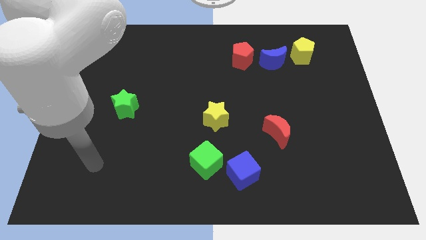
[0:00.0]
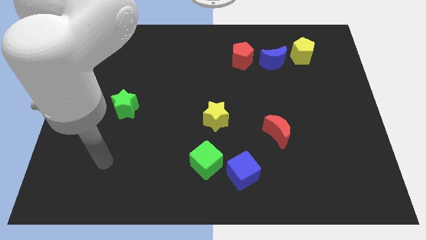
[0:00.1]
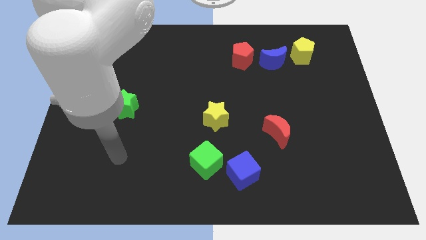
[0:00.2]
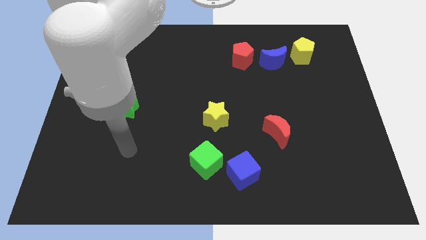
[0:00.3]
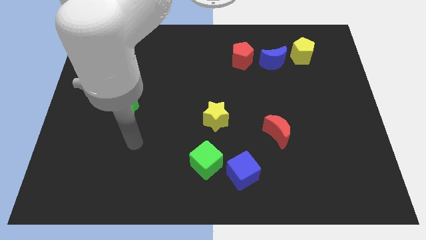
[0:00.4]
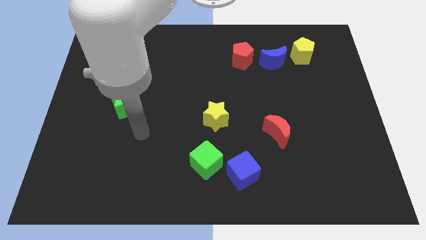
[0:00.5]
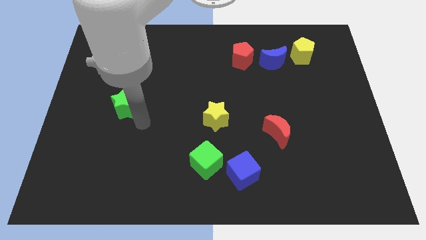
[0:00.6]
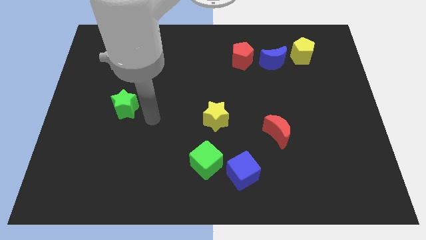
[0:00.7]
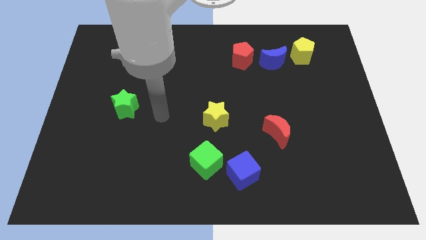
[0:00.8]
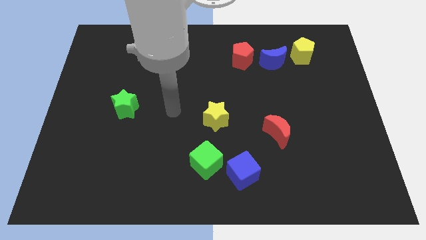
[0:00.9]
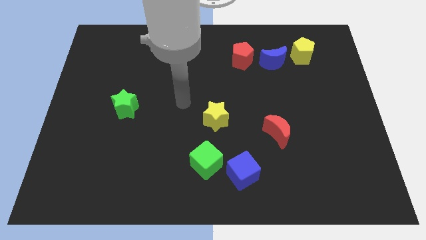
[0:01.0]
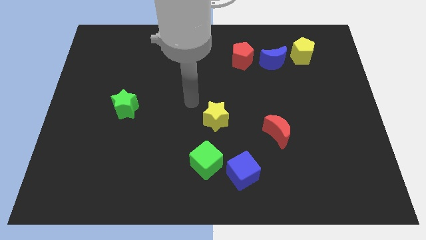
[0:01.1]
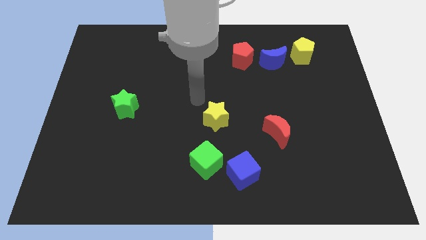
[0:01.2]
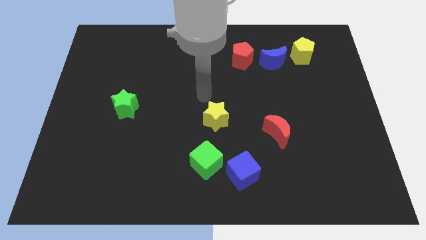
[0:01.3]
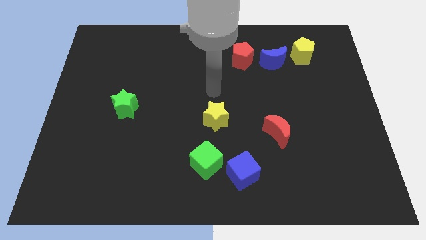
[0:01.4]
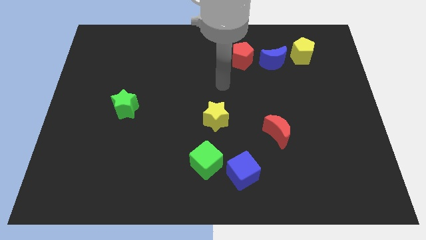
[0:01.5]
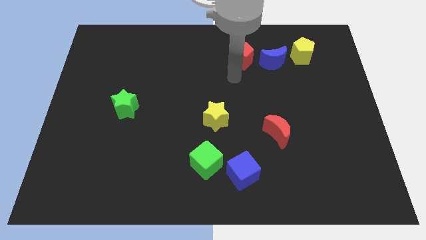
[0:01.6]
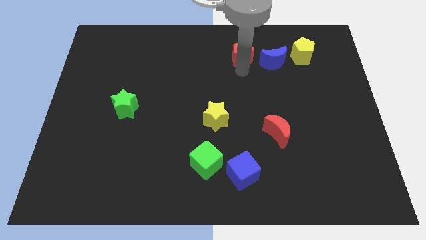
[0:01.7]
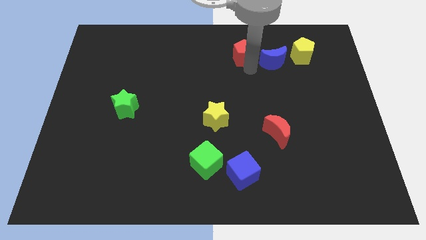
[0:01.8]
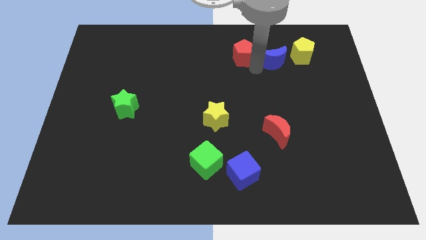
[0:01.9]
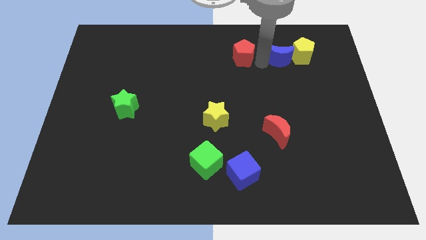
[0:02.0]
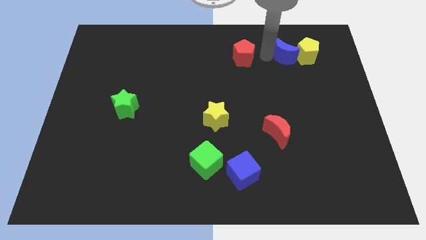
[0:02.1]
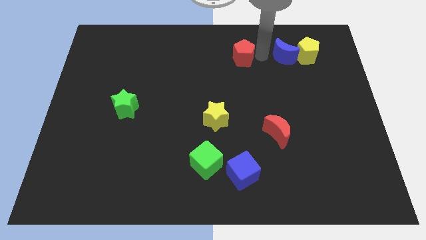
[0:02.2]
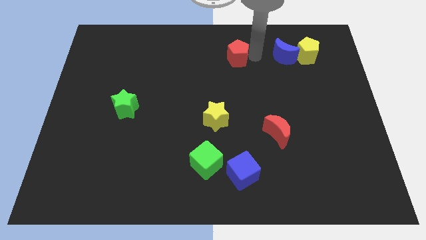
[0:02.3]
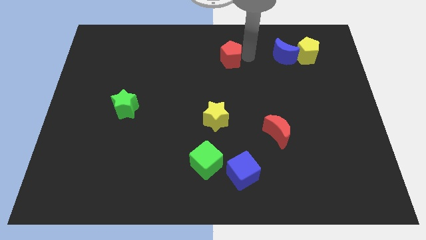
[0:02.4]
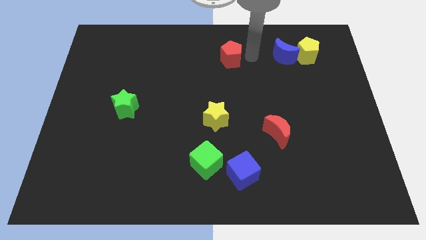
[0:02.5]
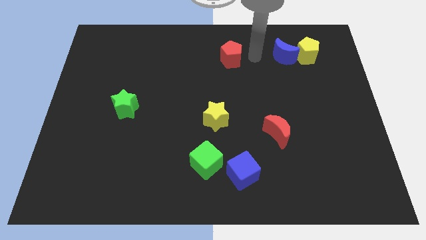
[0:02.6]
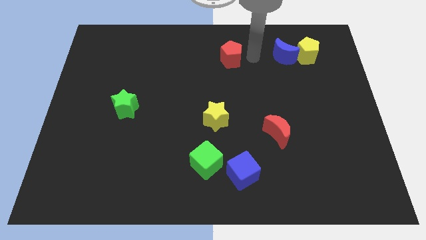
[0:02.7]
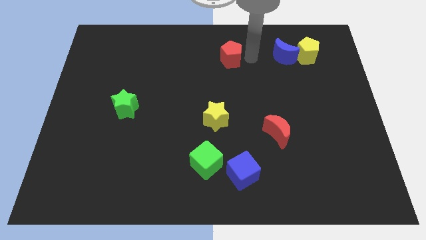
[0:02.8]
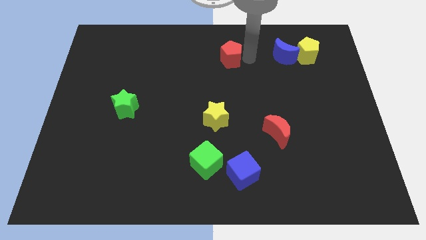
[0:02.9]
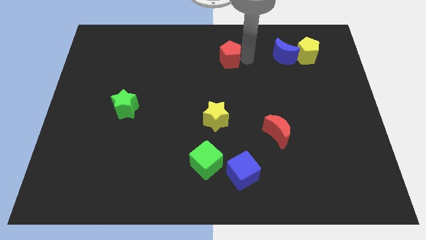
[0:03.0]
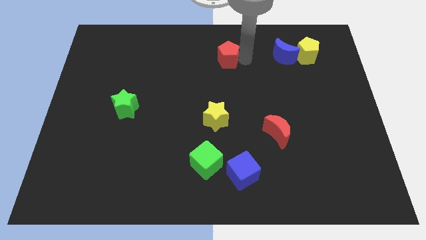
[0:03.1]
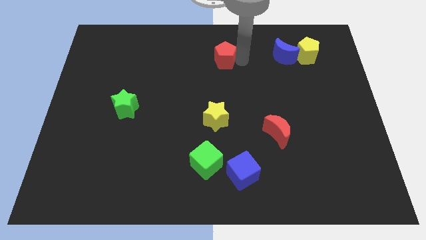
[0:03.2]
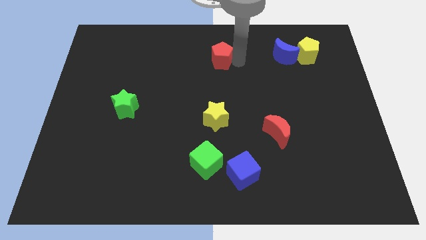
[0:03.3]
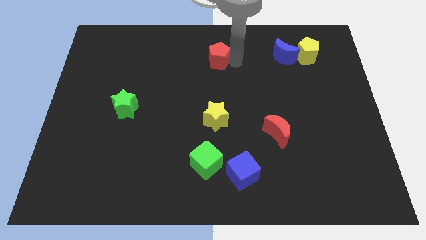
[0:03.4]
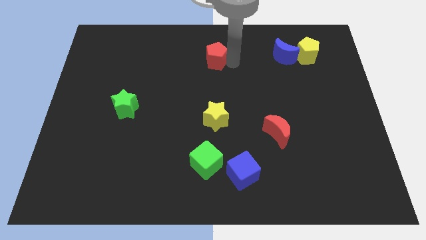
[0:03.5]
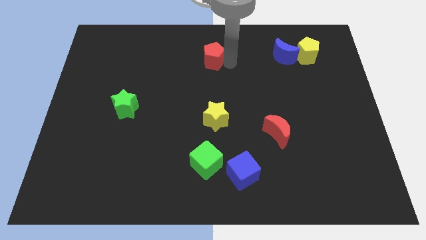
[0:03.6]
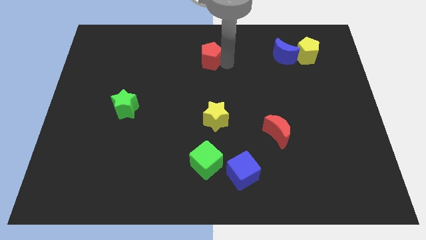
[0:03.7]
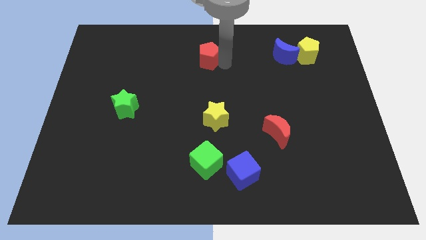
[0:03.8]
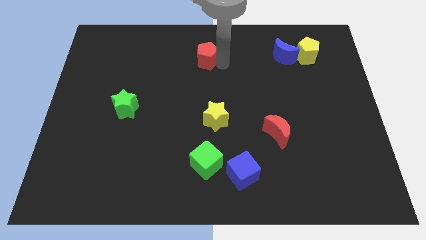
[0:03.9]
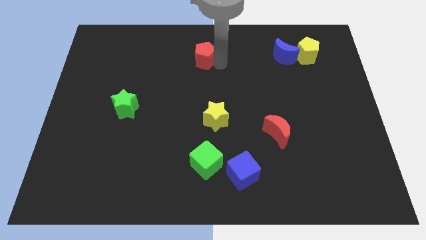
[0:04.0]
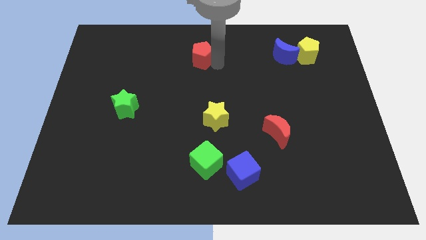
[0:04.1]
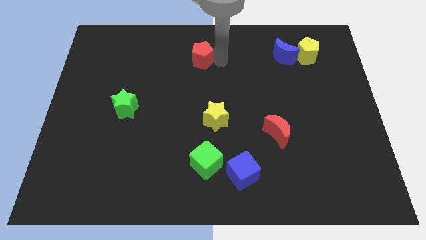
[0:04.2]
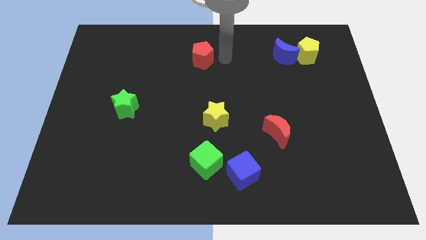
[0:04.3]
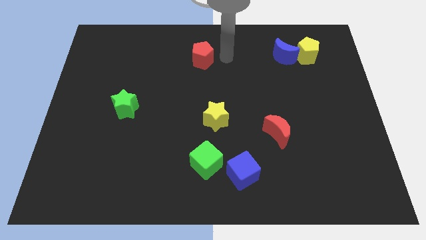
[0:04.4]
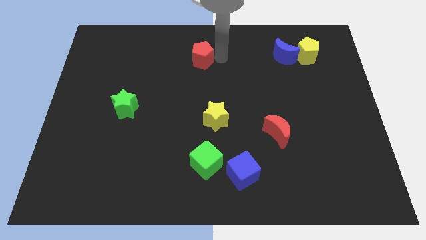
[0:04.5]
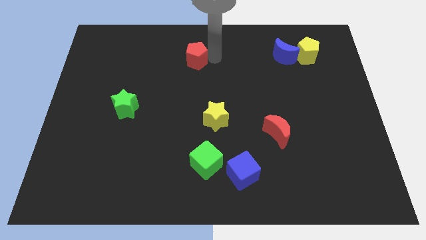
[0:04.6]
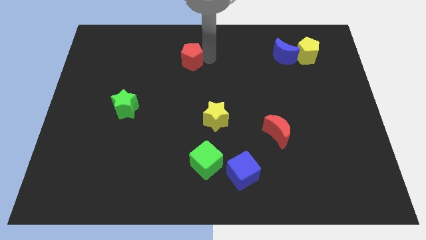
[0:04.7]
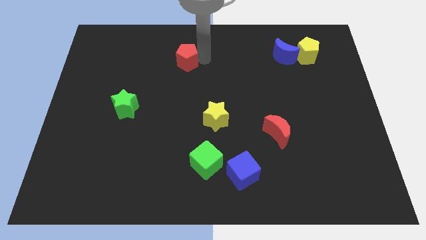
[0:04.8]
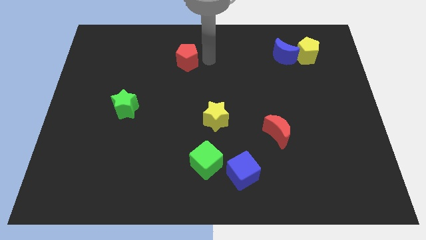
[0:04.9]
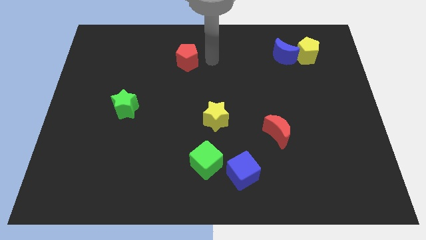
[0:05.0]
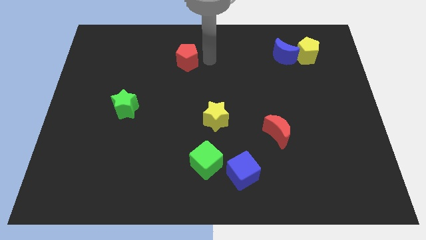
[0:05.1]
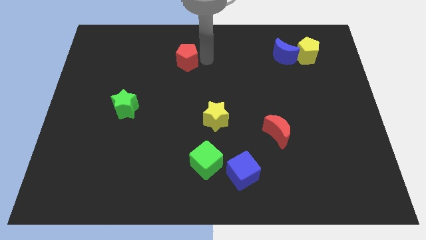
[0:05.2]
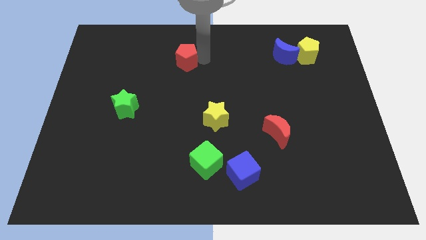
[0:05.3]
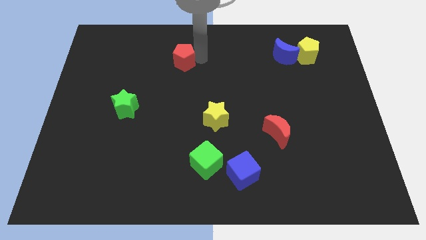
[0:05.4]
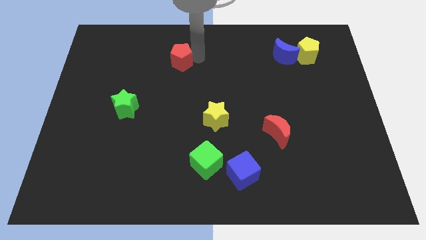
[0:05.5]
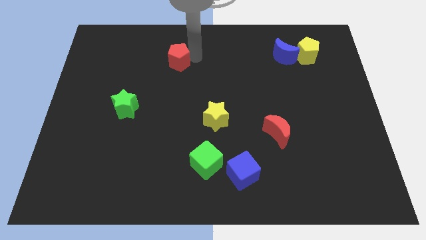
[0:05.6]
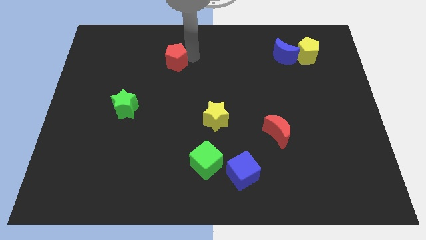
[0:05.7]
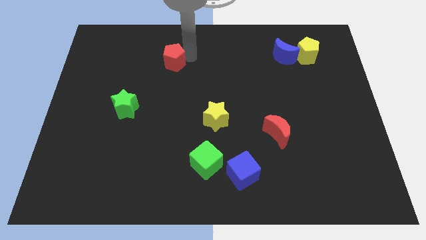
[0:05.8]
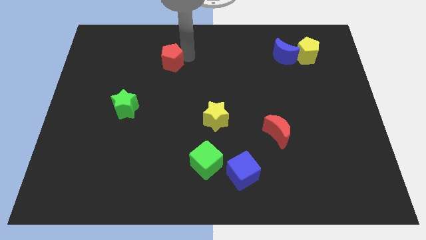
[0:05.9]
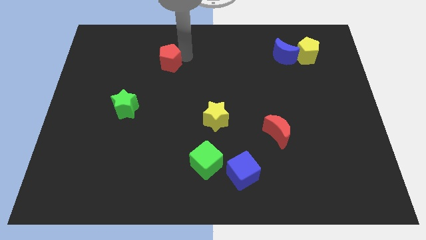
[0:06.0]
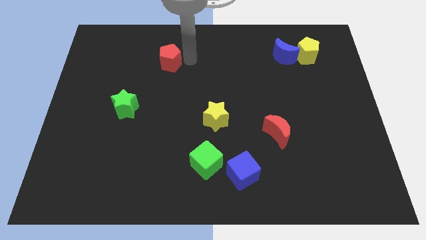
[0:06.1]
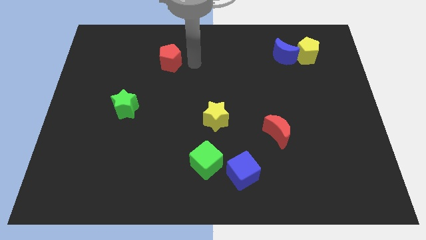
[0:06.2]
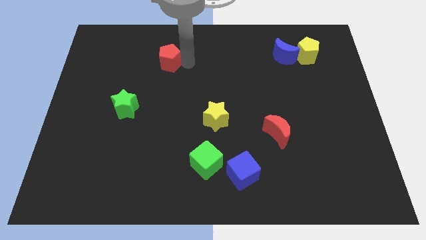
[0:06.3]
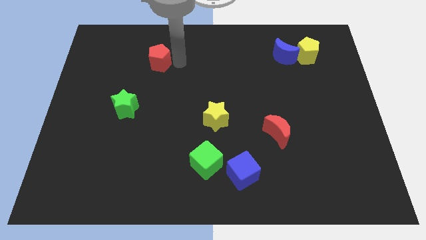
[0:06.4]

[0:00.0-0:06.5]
move the red pentagon to the left

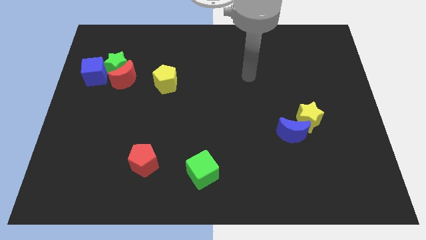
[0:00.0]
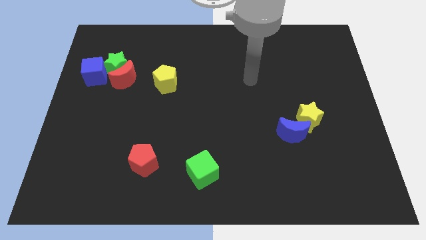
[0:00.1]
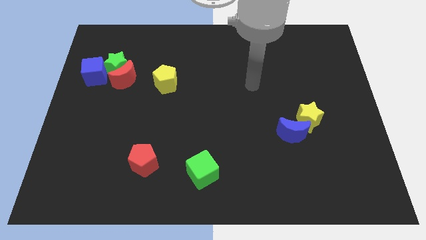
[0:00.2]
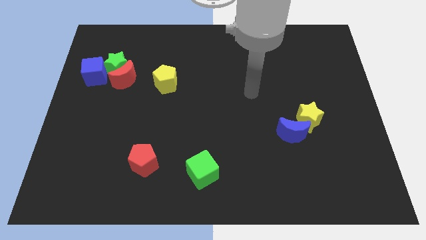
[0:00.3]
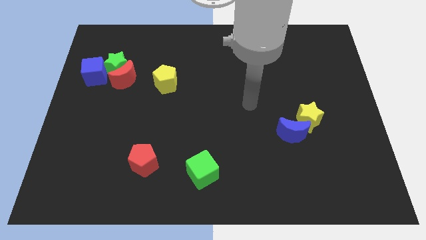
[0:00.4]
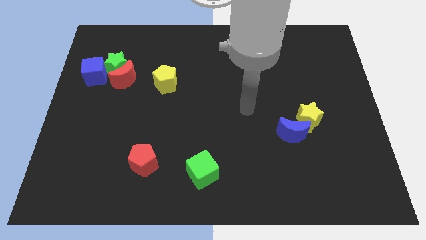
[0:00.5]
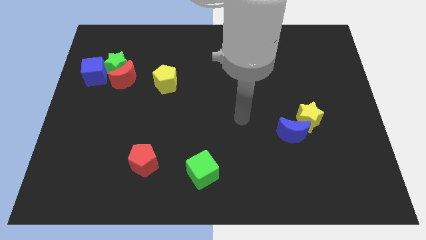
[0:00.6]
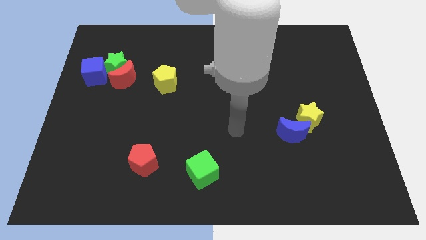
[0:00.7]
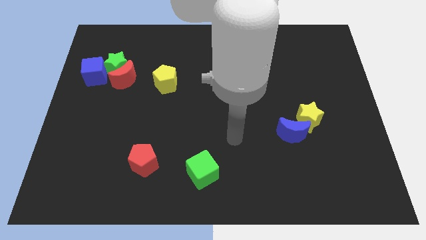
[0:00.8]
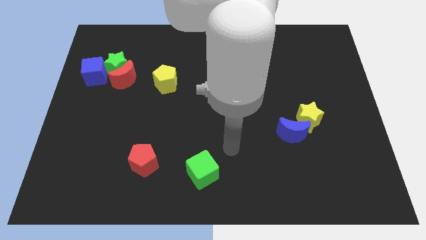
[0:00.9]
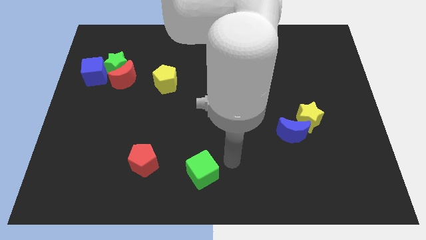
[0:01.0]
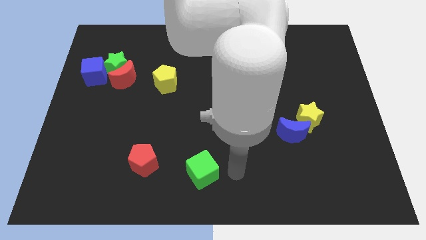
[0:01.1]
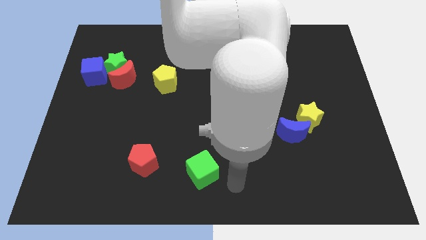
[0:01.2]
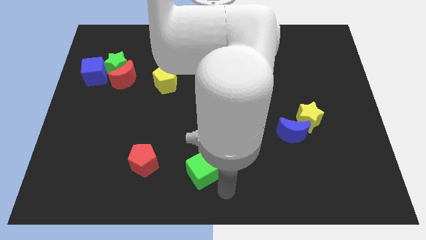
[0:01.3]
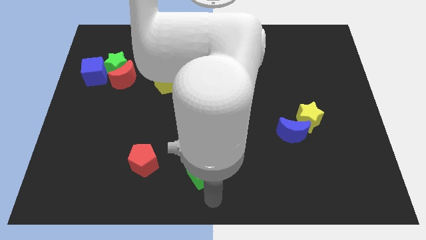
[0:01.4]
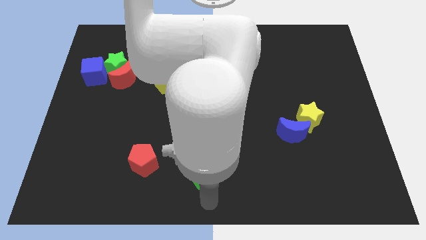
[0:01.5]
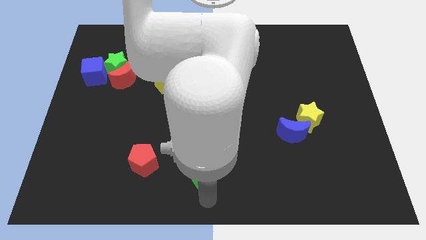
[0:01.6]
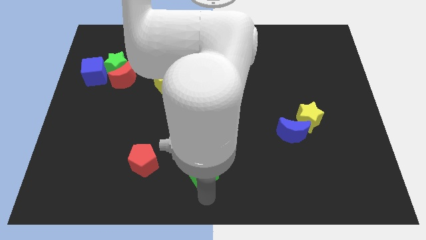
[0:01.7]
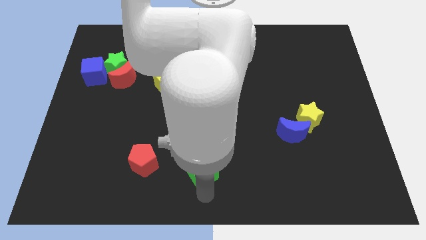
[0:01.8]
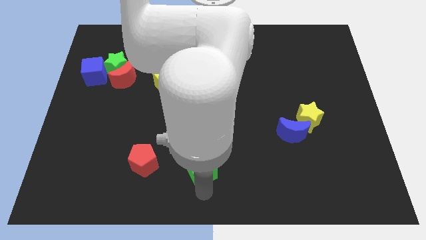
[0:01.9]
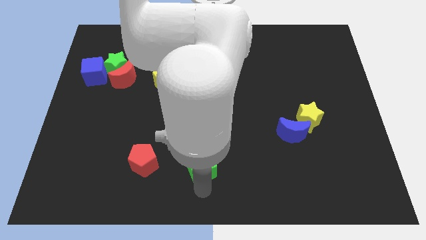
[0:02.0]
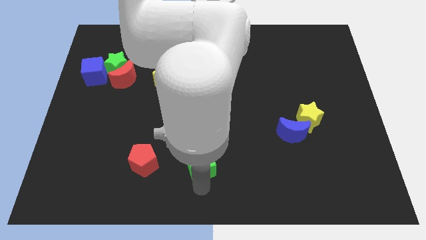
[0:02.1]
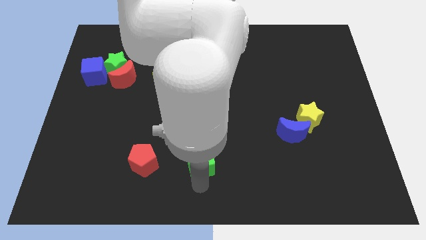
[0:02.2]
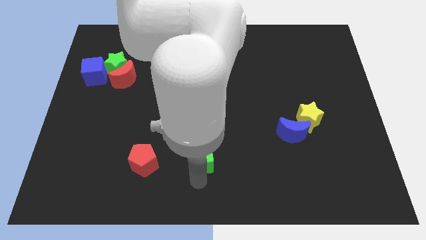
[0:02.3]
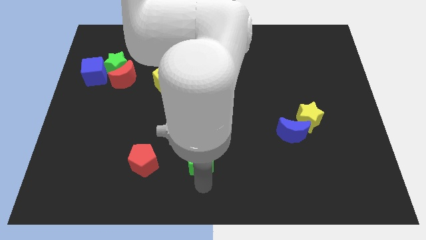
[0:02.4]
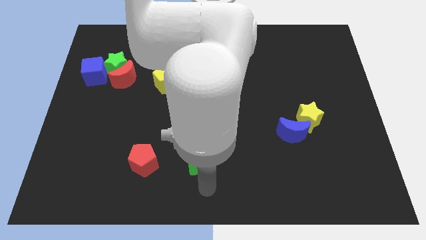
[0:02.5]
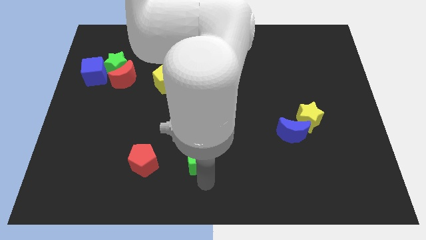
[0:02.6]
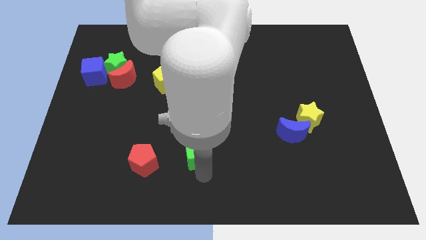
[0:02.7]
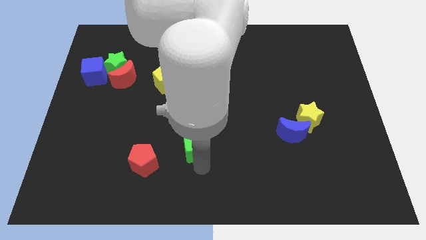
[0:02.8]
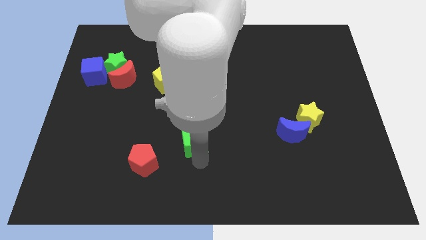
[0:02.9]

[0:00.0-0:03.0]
move the green cube a little bit upwards
